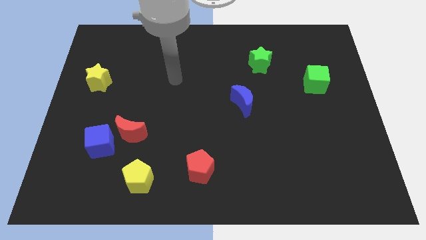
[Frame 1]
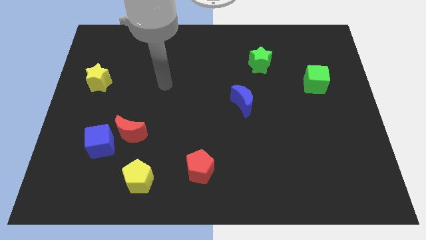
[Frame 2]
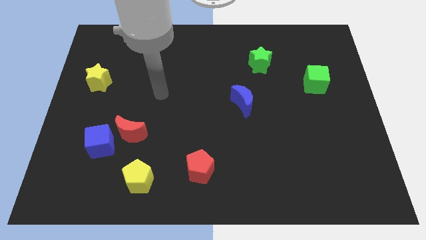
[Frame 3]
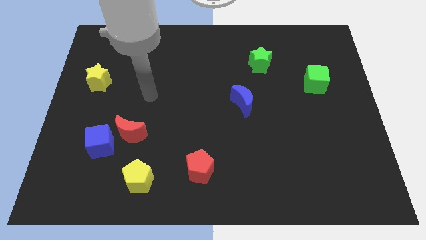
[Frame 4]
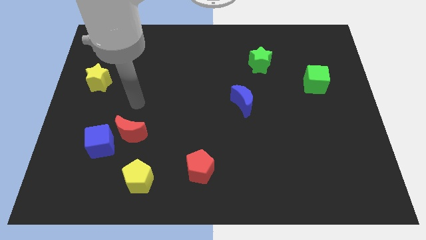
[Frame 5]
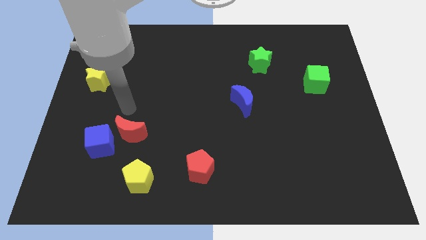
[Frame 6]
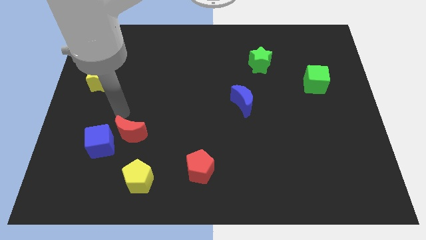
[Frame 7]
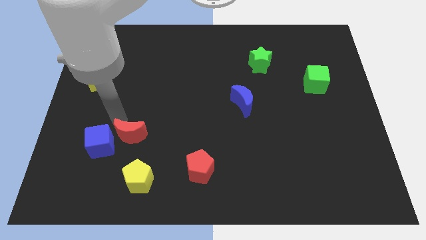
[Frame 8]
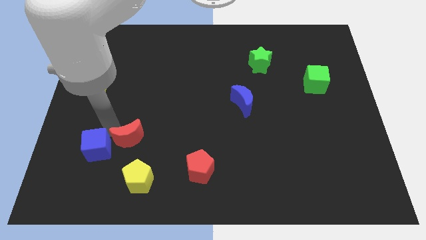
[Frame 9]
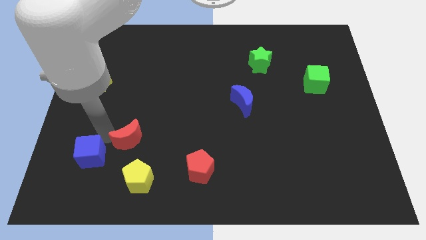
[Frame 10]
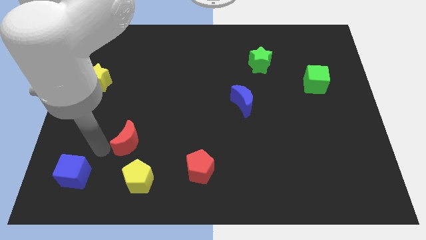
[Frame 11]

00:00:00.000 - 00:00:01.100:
separate the red moon from the blue cube

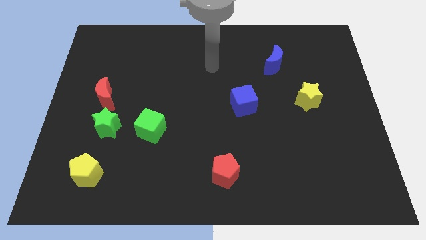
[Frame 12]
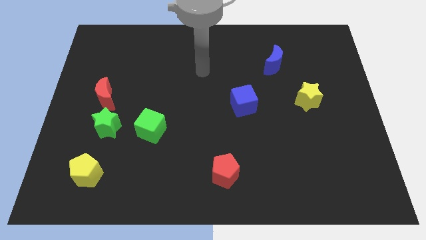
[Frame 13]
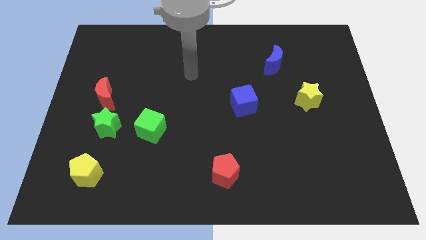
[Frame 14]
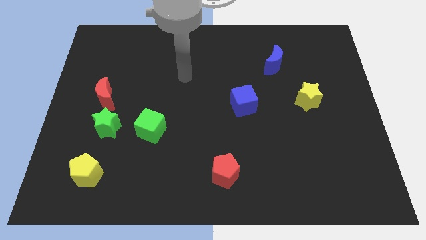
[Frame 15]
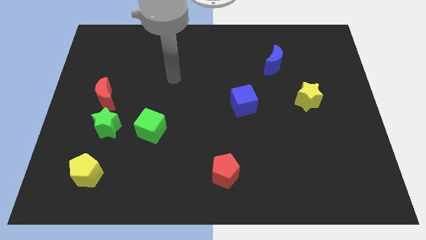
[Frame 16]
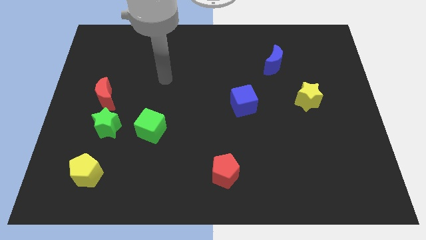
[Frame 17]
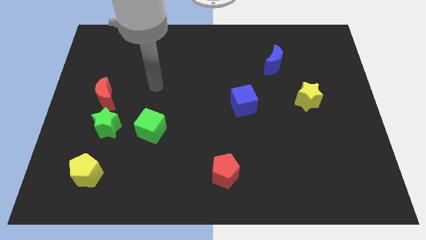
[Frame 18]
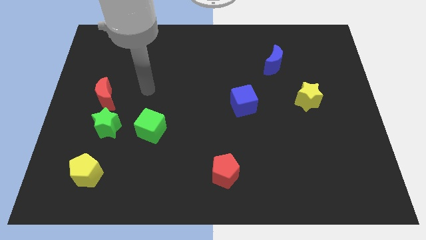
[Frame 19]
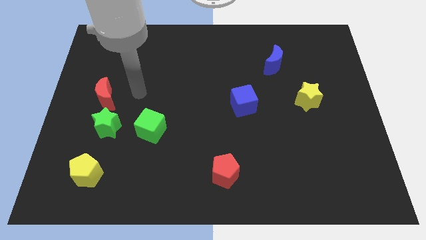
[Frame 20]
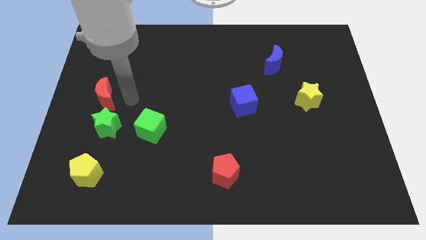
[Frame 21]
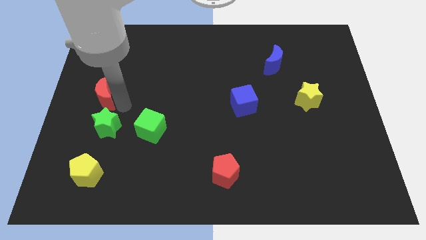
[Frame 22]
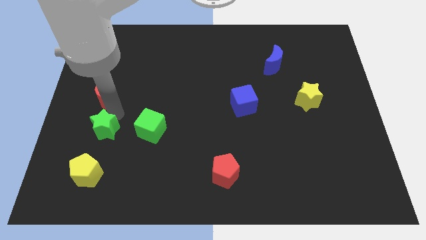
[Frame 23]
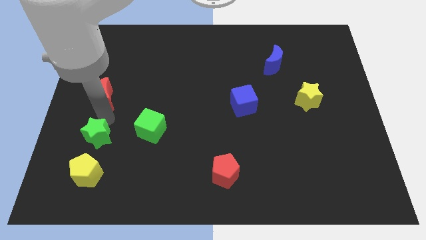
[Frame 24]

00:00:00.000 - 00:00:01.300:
separate the red moon from the green star

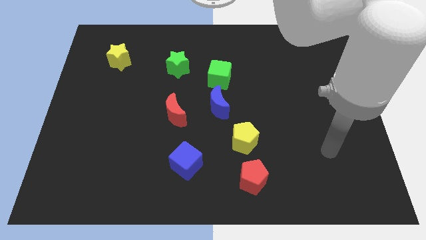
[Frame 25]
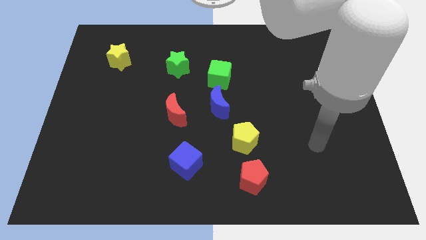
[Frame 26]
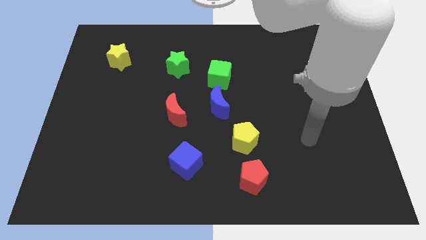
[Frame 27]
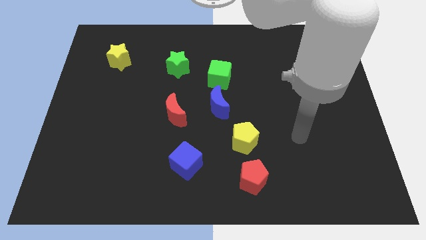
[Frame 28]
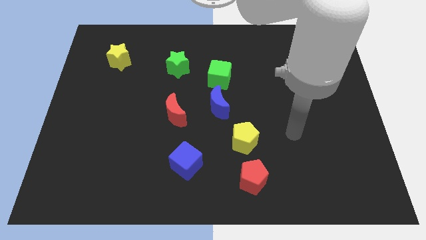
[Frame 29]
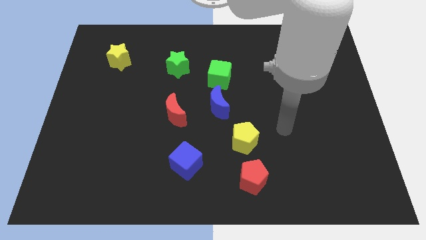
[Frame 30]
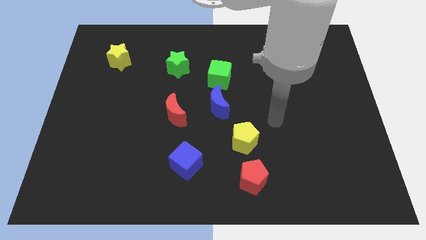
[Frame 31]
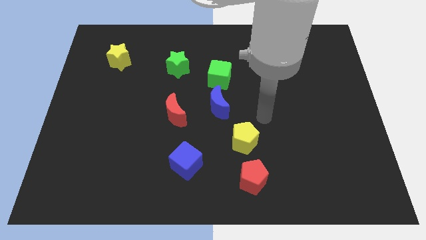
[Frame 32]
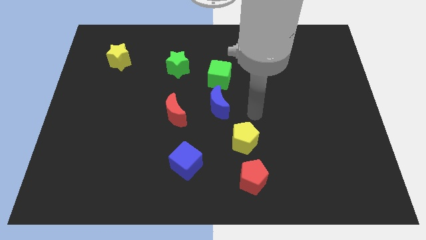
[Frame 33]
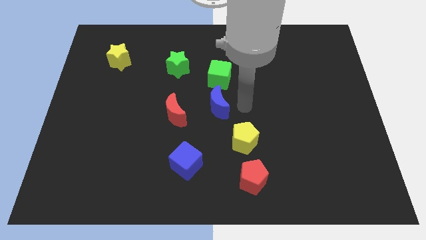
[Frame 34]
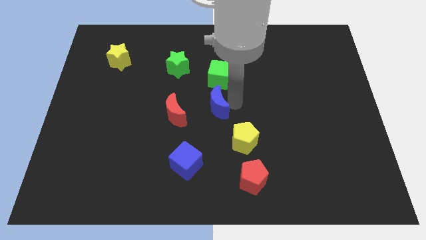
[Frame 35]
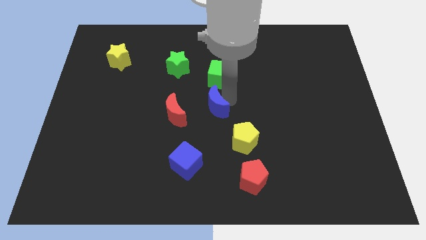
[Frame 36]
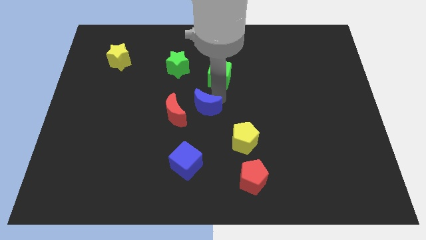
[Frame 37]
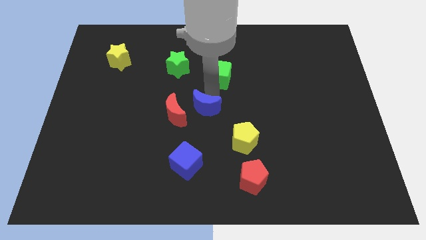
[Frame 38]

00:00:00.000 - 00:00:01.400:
separate the green cube from the blue moon

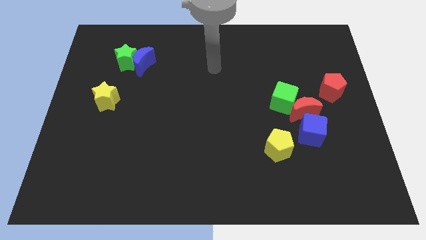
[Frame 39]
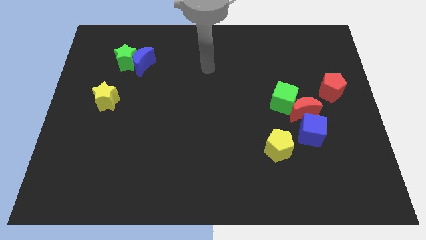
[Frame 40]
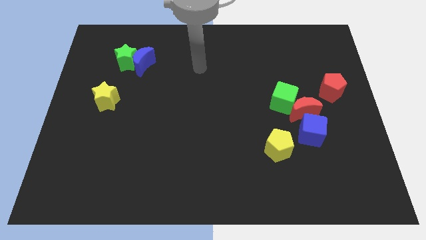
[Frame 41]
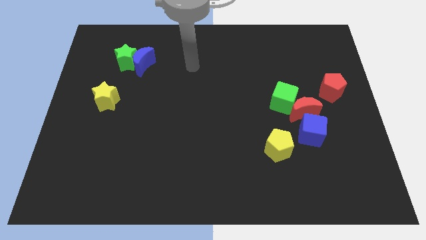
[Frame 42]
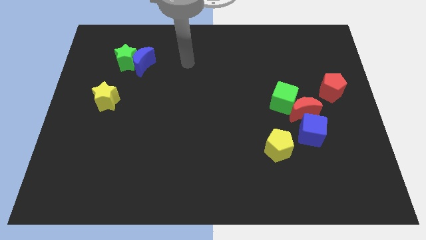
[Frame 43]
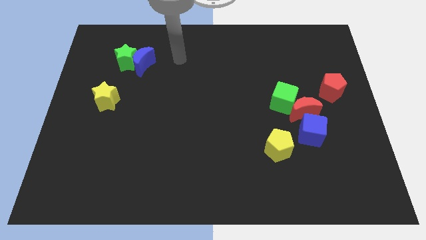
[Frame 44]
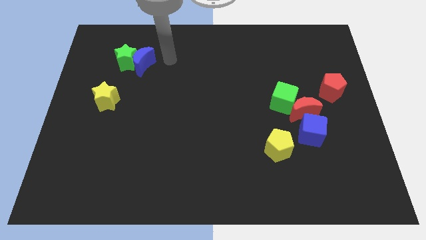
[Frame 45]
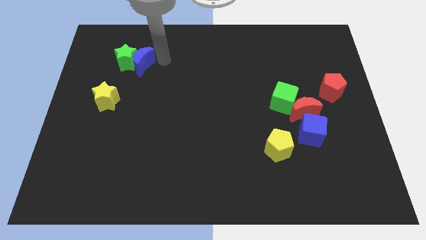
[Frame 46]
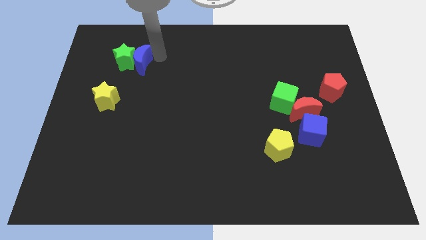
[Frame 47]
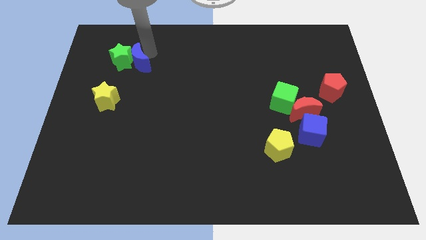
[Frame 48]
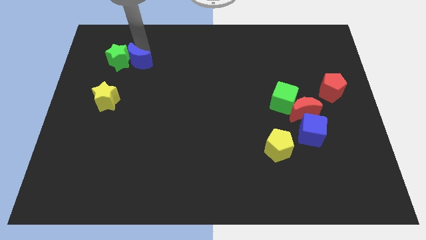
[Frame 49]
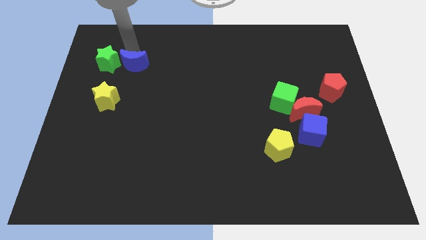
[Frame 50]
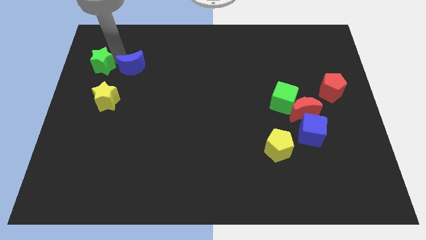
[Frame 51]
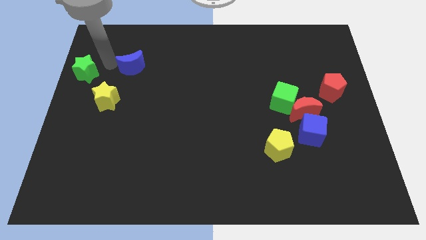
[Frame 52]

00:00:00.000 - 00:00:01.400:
separate the blue moon from the green star

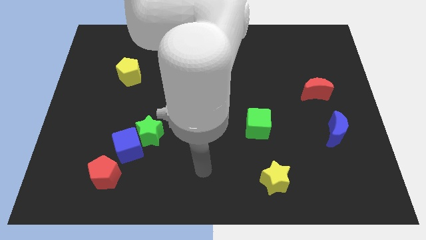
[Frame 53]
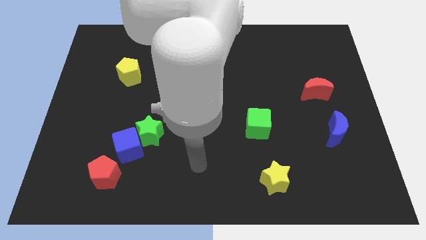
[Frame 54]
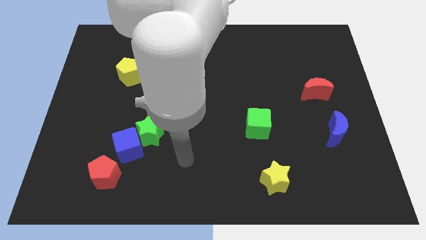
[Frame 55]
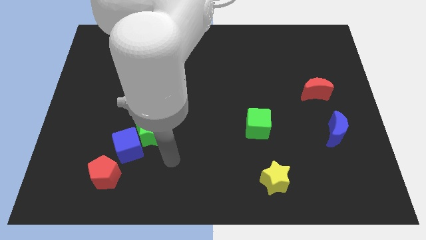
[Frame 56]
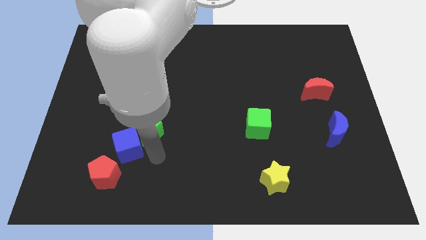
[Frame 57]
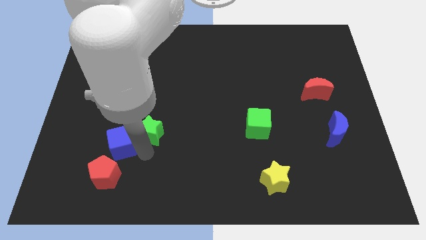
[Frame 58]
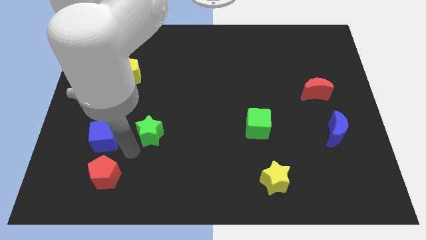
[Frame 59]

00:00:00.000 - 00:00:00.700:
separate the green star from the blue cube

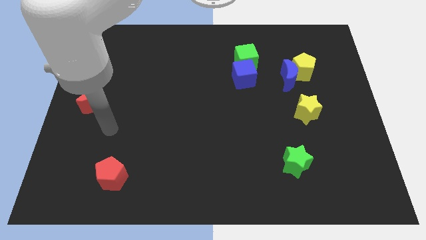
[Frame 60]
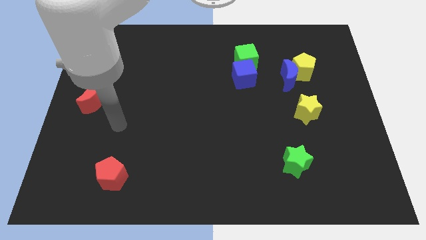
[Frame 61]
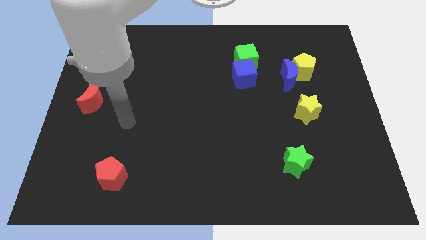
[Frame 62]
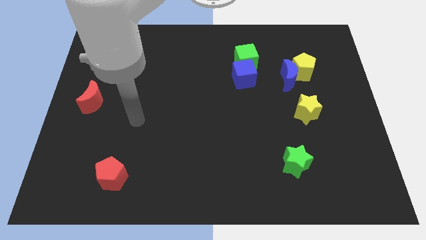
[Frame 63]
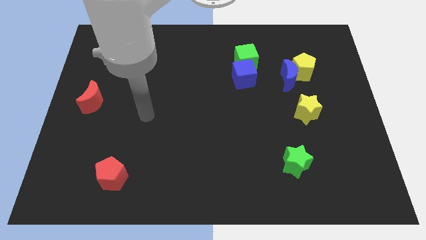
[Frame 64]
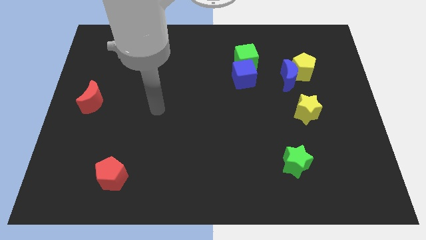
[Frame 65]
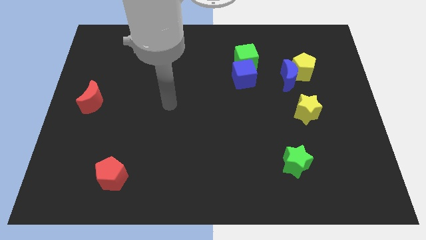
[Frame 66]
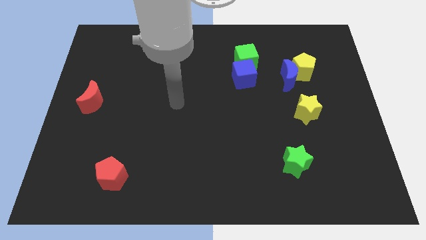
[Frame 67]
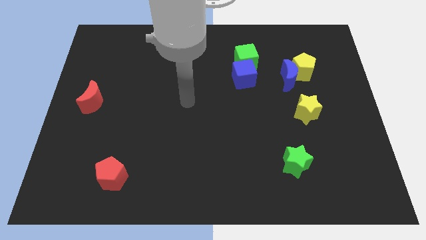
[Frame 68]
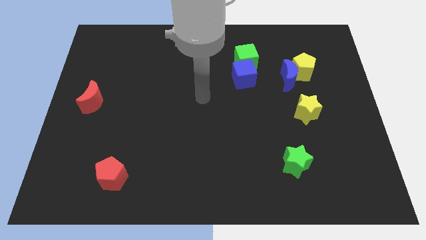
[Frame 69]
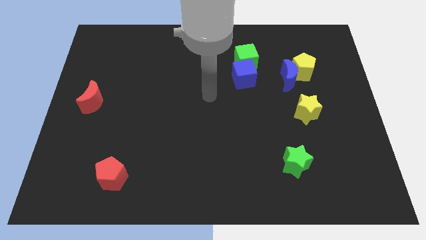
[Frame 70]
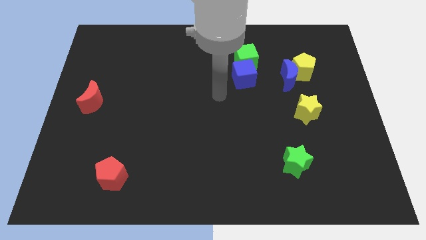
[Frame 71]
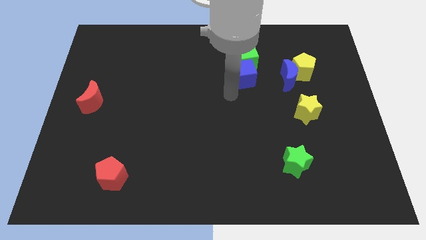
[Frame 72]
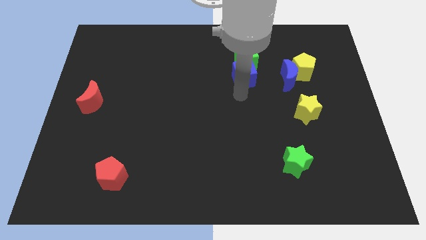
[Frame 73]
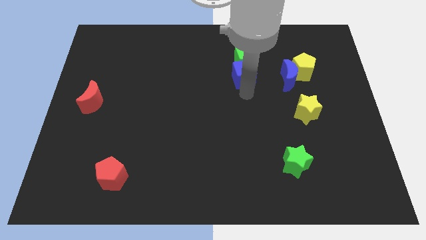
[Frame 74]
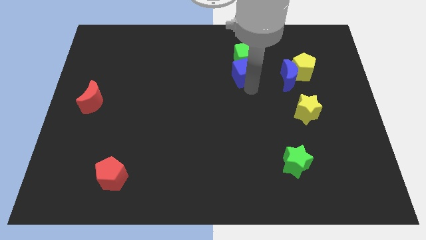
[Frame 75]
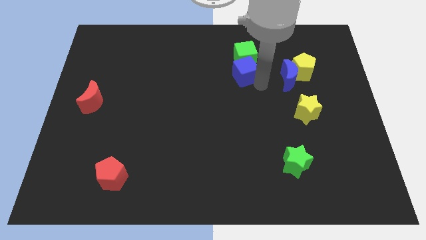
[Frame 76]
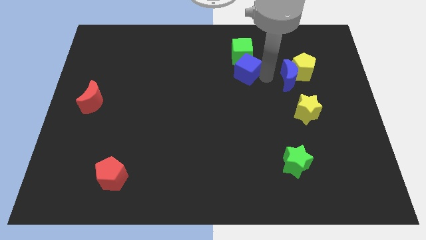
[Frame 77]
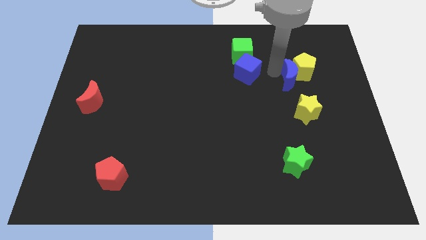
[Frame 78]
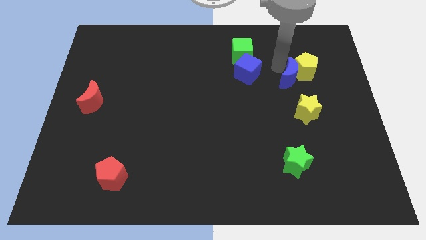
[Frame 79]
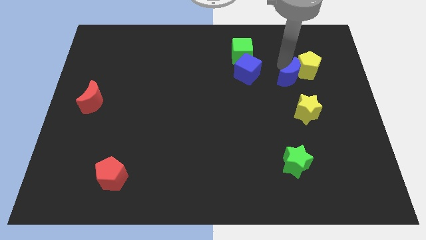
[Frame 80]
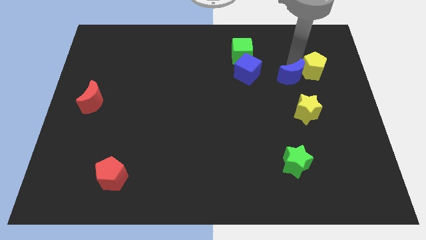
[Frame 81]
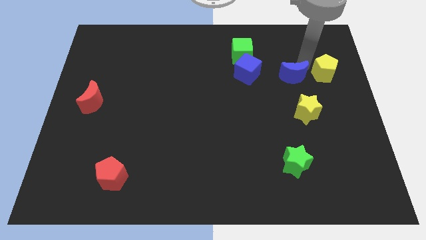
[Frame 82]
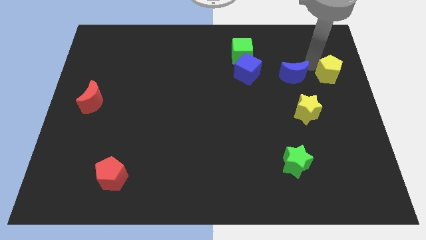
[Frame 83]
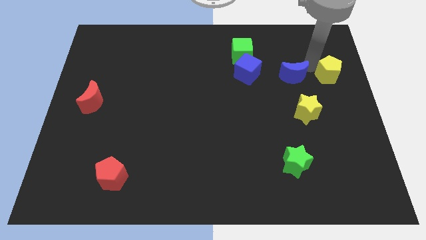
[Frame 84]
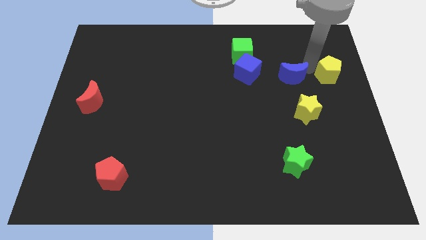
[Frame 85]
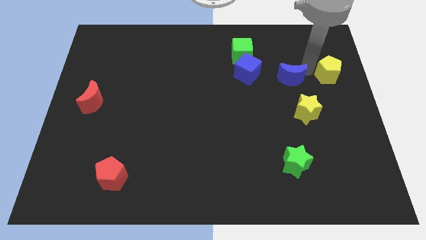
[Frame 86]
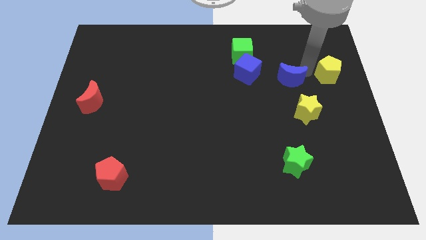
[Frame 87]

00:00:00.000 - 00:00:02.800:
move the blue moon away from the yellow pentagon

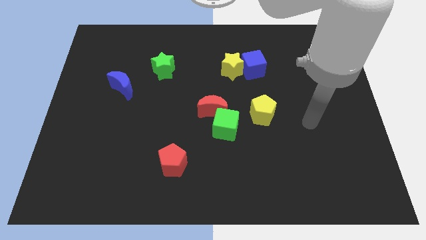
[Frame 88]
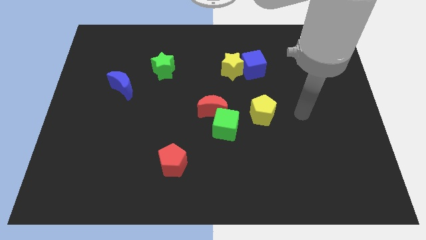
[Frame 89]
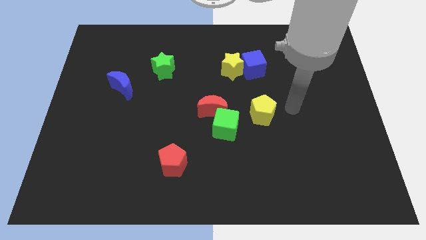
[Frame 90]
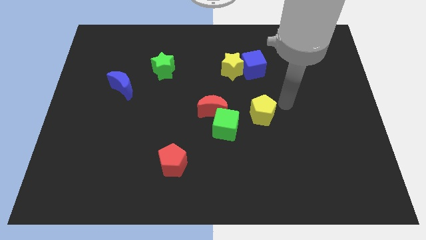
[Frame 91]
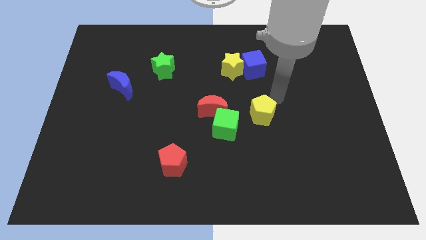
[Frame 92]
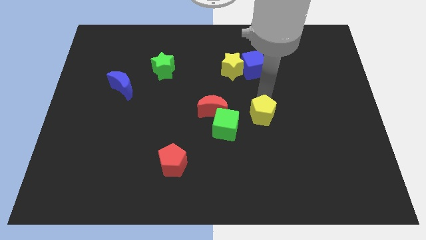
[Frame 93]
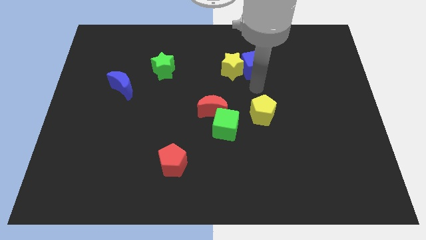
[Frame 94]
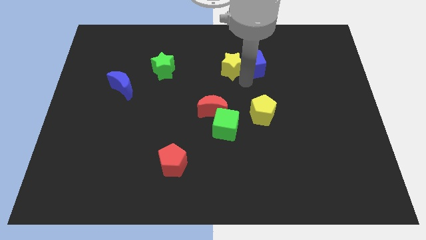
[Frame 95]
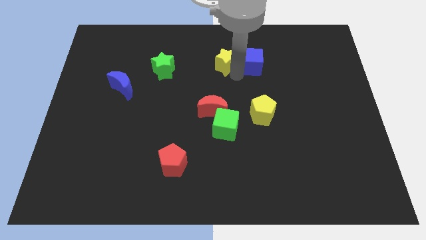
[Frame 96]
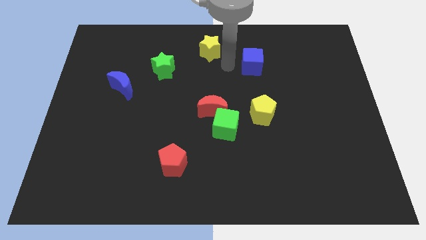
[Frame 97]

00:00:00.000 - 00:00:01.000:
separate the blue cube from the yellow star
